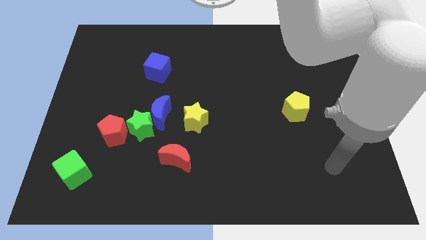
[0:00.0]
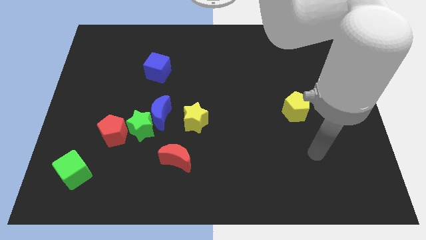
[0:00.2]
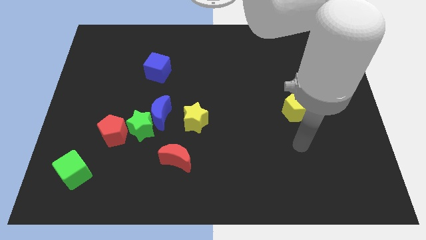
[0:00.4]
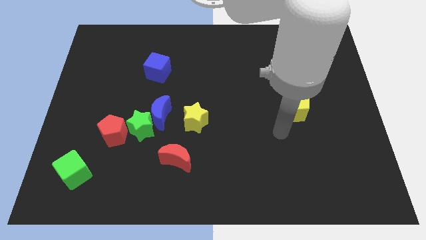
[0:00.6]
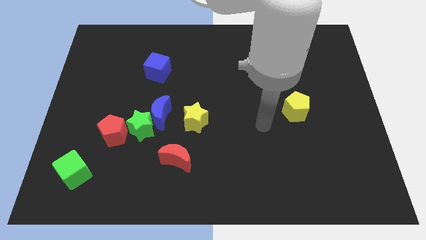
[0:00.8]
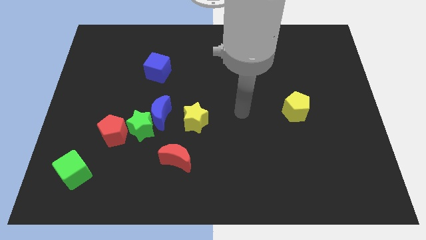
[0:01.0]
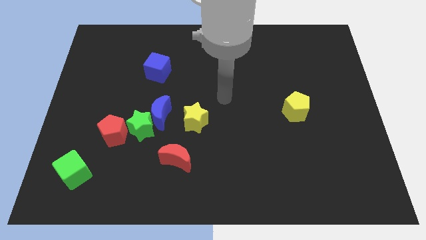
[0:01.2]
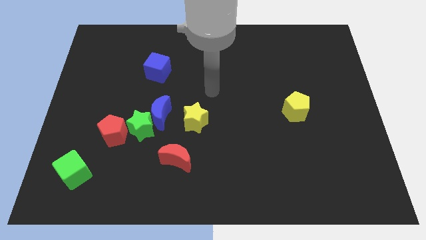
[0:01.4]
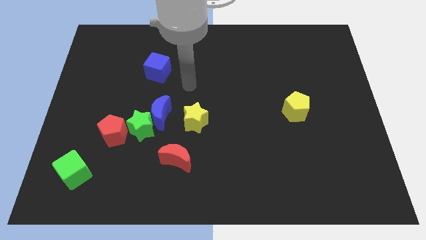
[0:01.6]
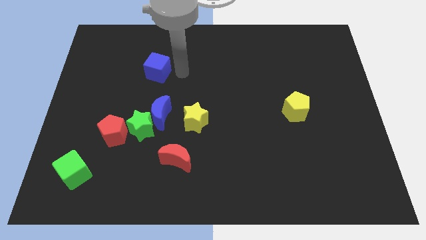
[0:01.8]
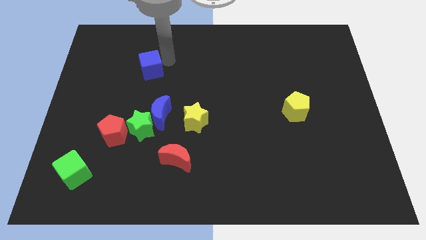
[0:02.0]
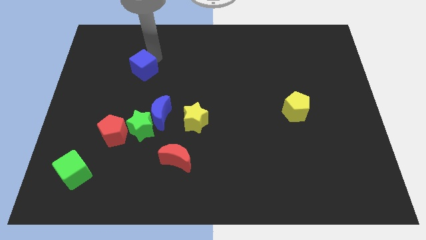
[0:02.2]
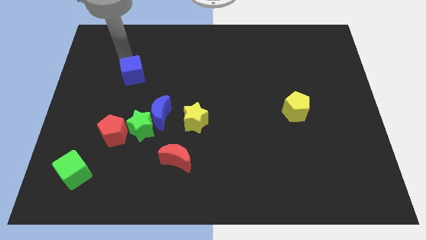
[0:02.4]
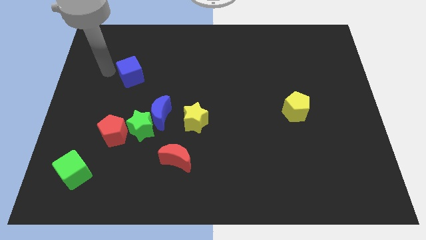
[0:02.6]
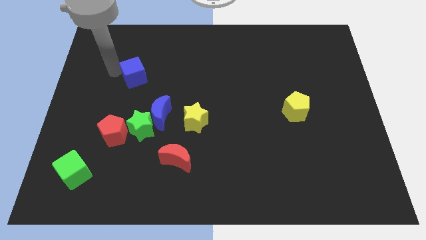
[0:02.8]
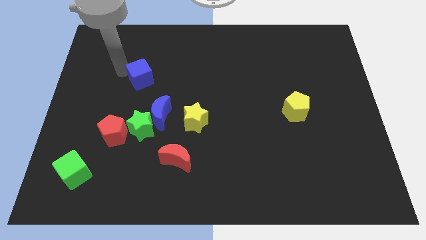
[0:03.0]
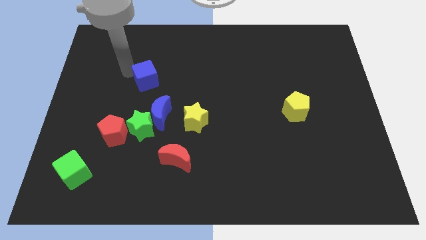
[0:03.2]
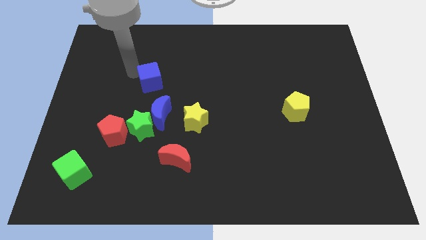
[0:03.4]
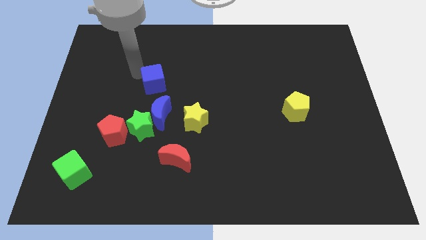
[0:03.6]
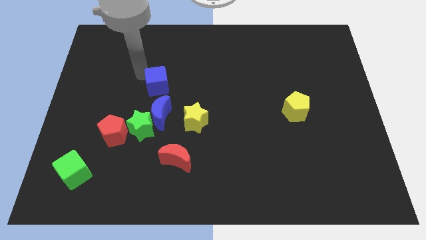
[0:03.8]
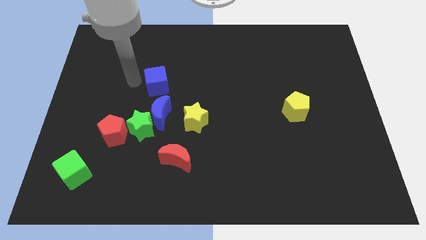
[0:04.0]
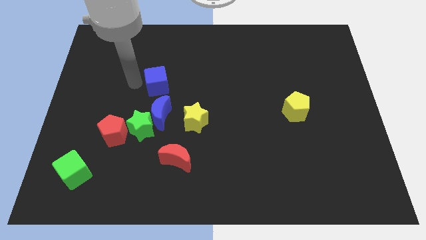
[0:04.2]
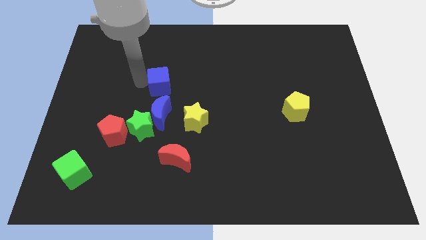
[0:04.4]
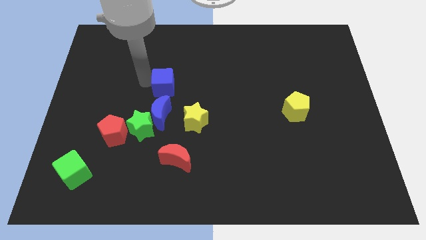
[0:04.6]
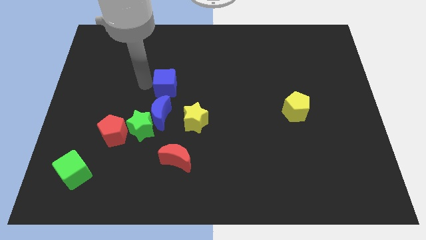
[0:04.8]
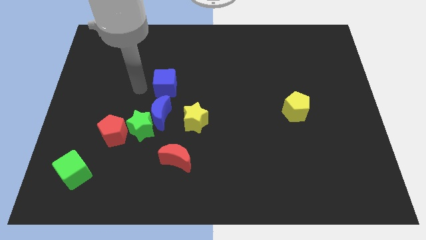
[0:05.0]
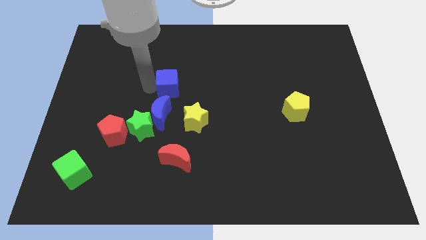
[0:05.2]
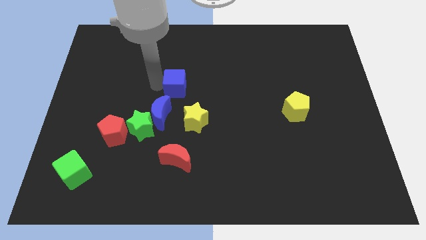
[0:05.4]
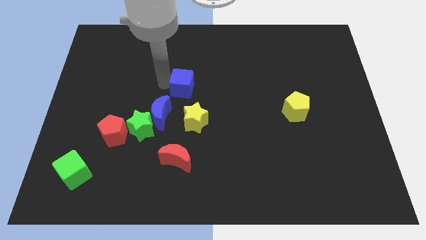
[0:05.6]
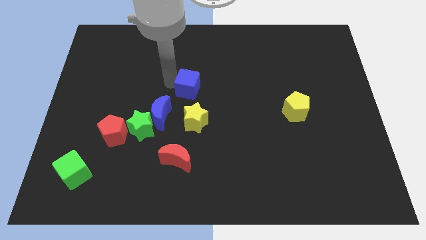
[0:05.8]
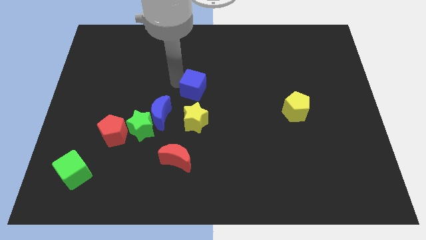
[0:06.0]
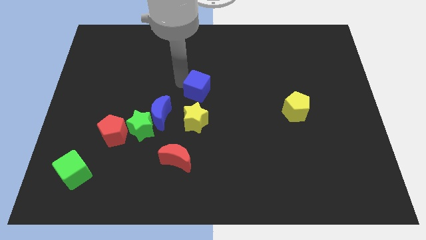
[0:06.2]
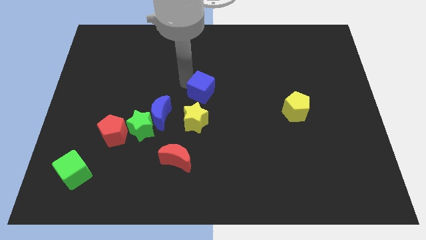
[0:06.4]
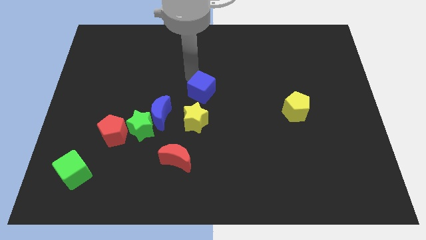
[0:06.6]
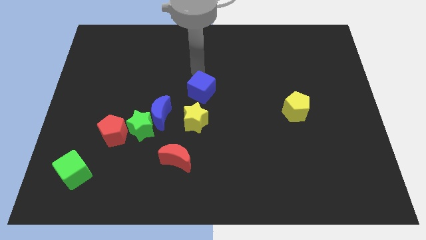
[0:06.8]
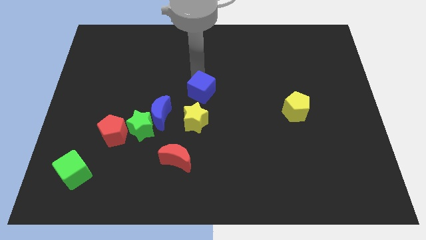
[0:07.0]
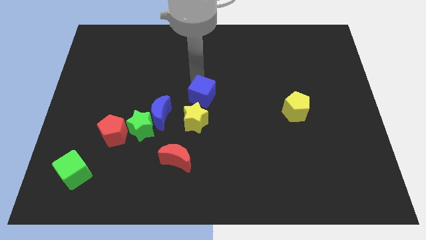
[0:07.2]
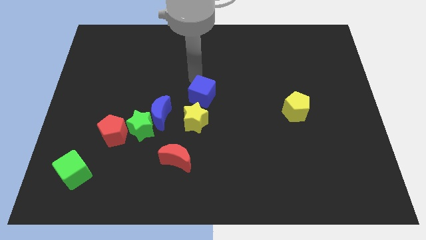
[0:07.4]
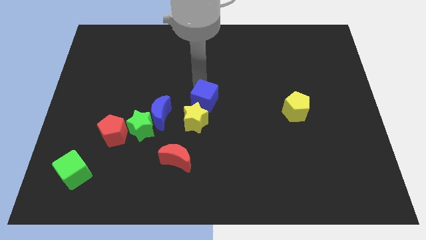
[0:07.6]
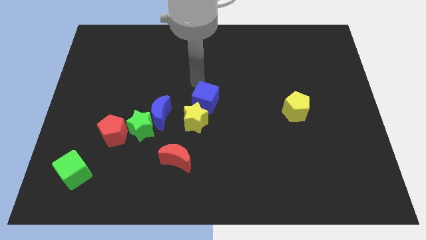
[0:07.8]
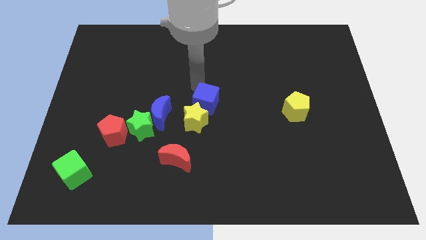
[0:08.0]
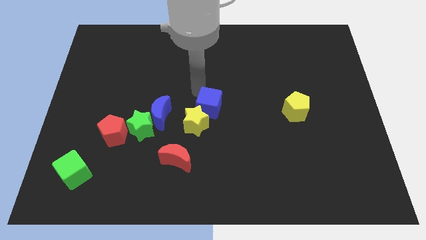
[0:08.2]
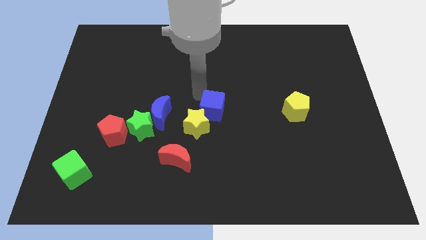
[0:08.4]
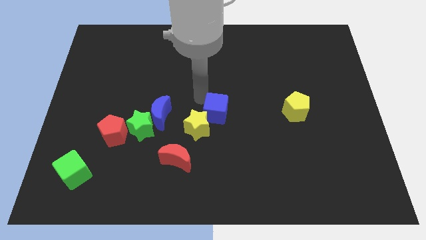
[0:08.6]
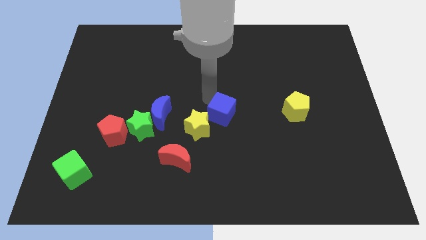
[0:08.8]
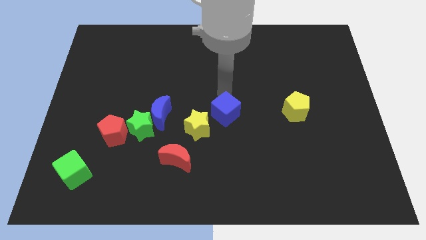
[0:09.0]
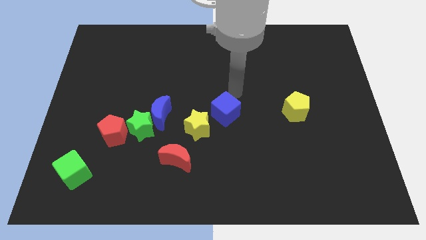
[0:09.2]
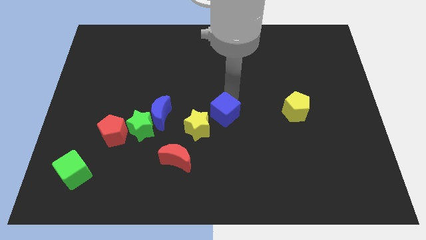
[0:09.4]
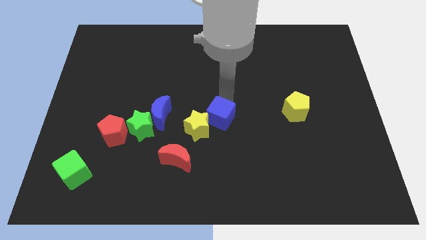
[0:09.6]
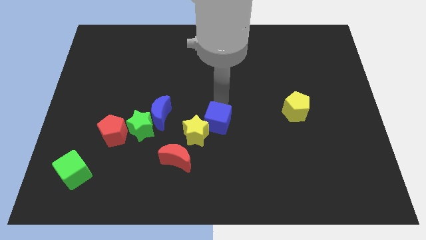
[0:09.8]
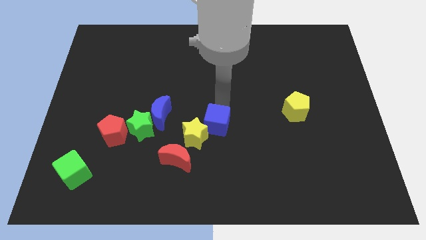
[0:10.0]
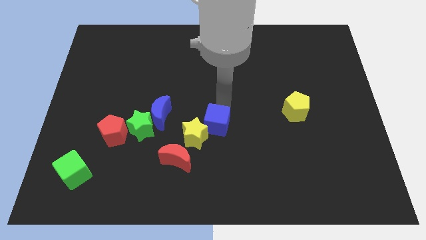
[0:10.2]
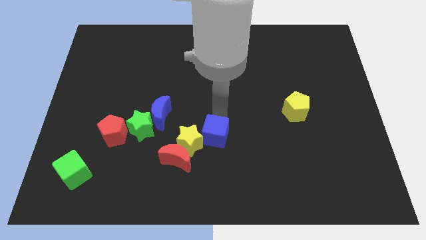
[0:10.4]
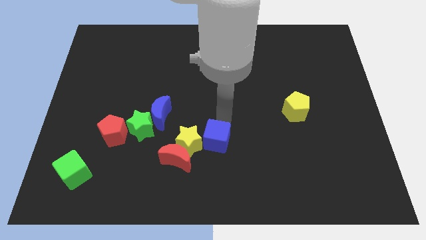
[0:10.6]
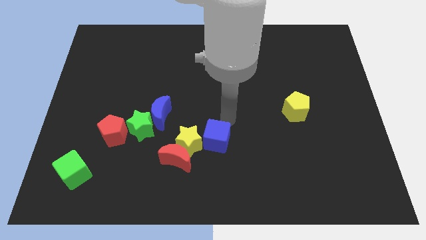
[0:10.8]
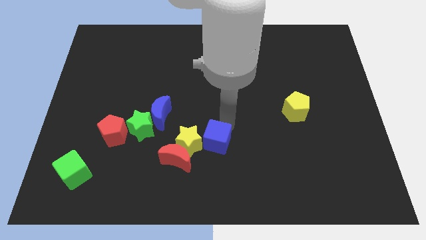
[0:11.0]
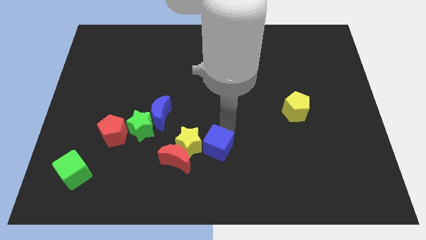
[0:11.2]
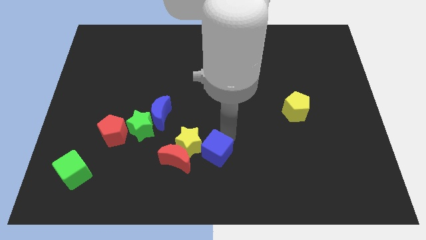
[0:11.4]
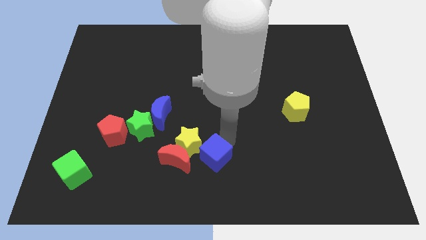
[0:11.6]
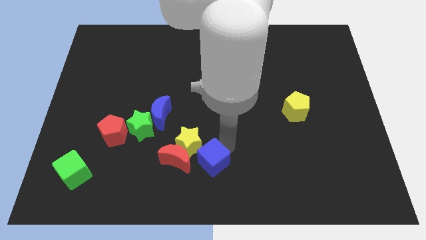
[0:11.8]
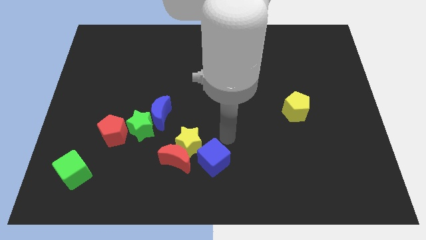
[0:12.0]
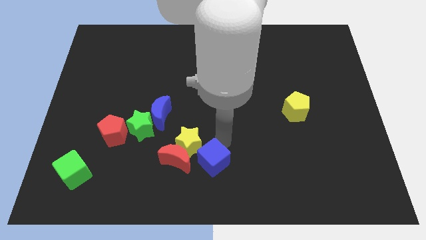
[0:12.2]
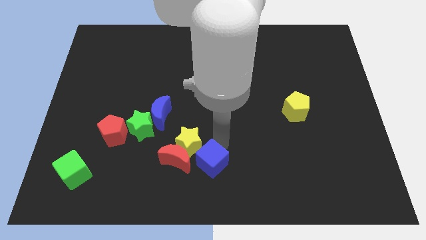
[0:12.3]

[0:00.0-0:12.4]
push the blue cube diagonally down and to the right of the red moon

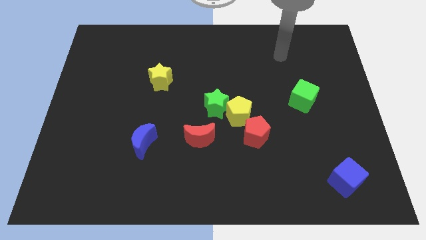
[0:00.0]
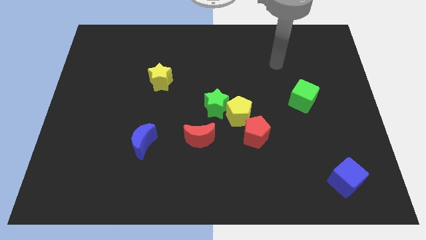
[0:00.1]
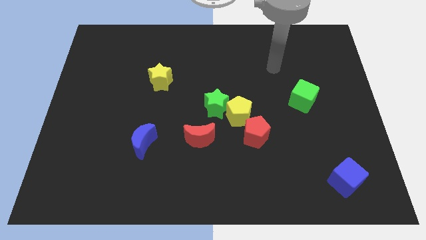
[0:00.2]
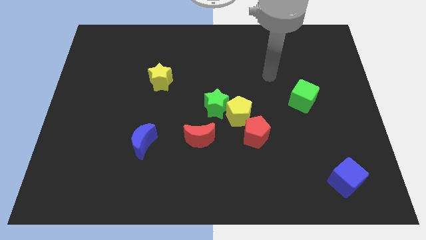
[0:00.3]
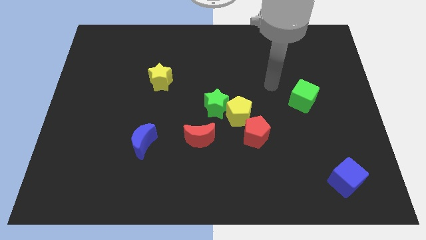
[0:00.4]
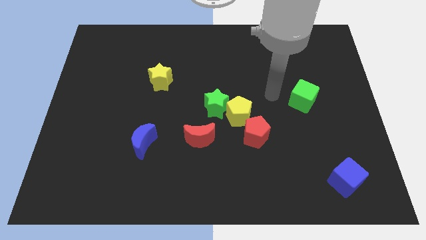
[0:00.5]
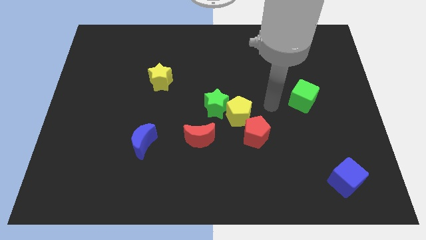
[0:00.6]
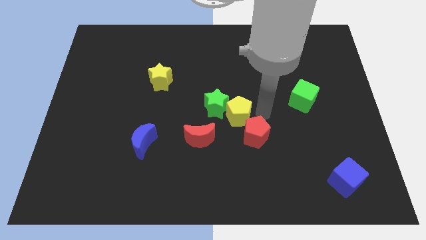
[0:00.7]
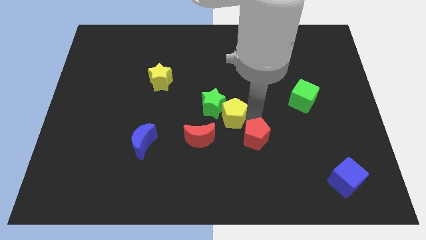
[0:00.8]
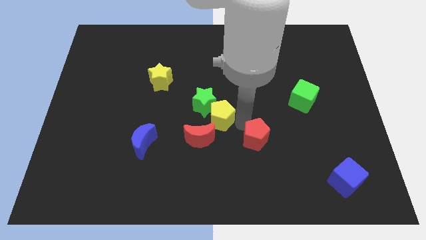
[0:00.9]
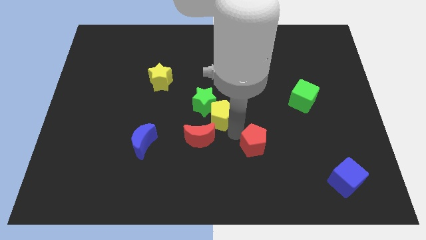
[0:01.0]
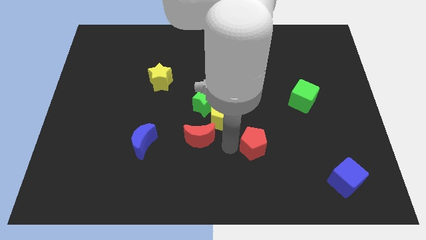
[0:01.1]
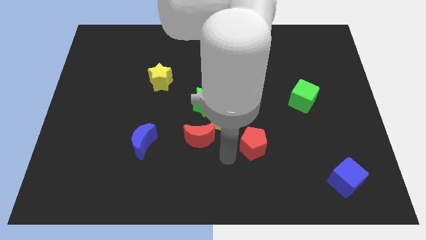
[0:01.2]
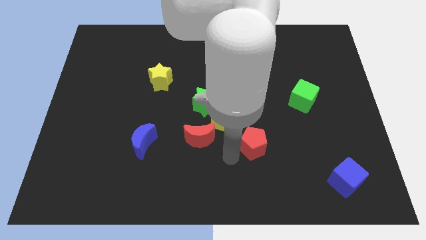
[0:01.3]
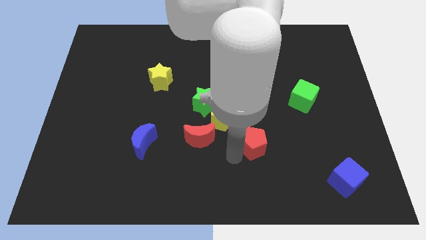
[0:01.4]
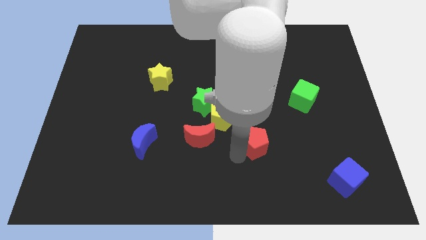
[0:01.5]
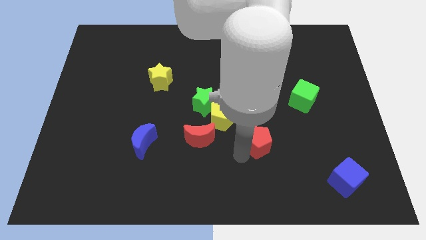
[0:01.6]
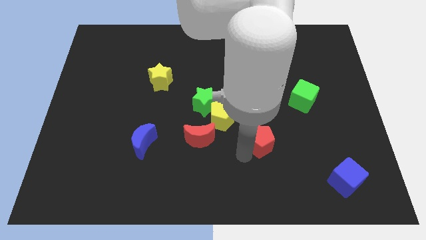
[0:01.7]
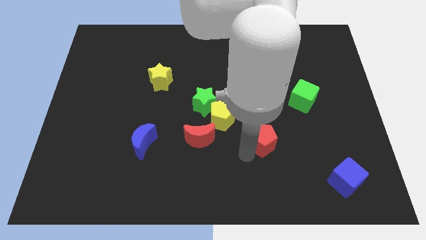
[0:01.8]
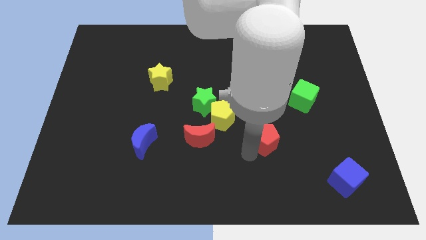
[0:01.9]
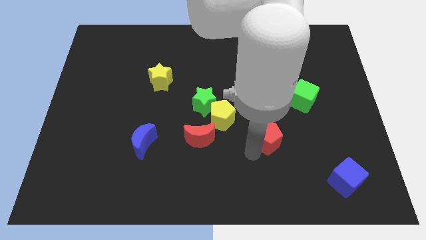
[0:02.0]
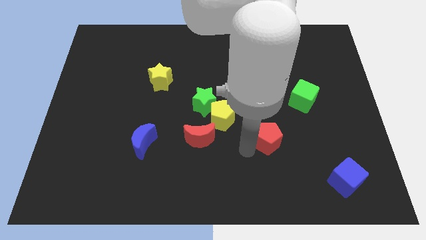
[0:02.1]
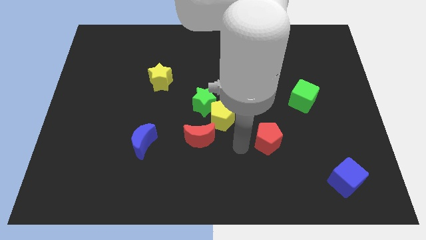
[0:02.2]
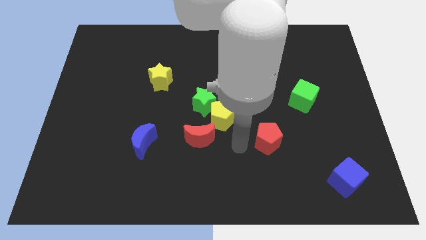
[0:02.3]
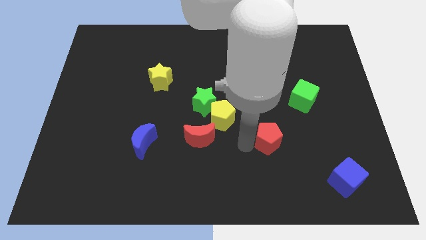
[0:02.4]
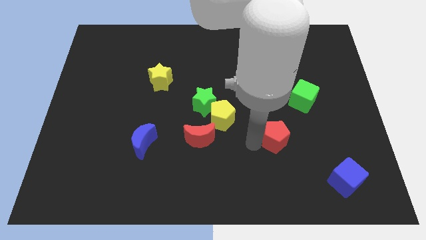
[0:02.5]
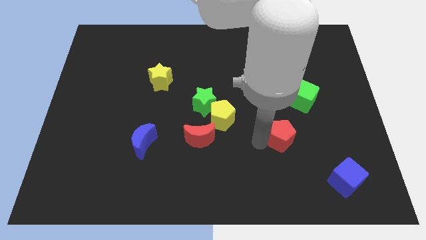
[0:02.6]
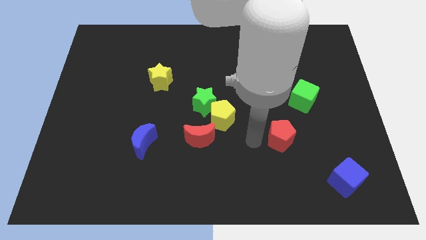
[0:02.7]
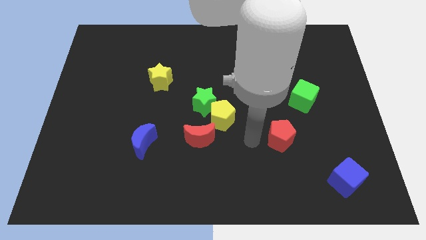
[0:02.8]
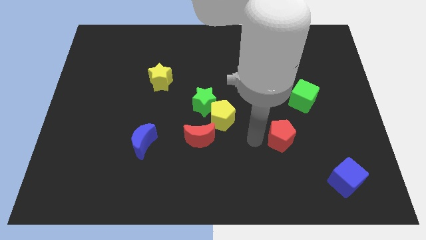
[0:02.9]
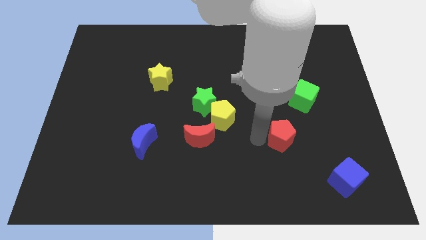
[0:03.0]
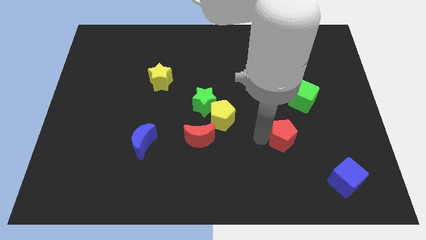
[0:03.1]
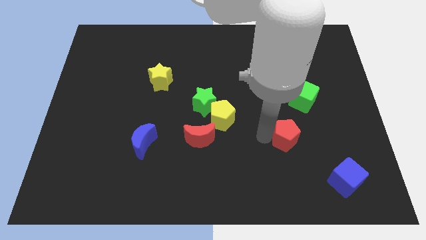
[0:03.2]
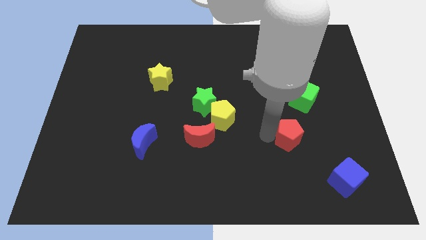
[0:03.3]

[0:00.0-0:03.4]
slide the red pentagon below the green cube
